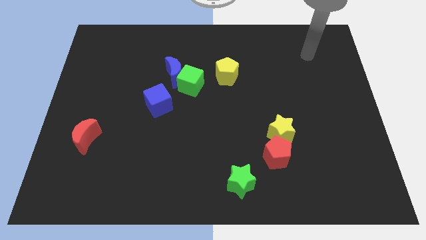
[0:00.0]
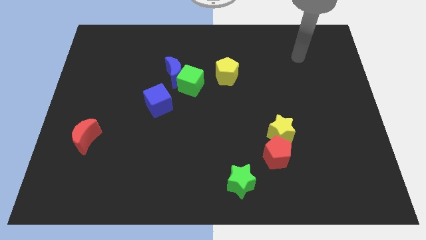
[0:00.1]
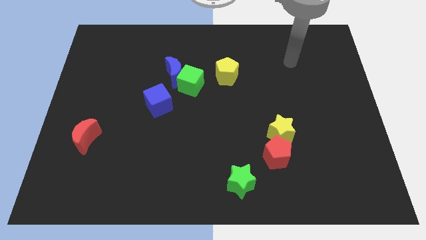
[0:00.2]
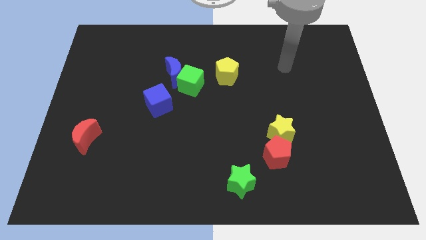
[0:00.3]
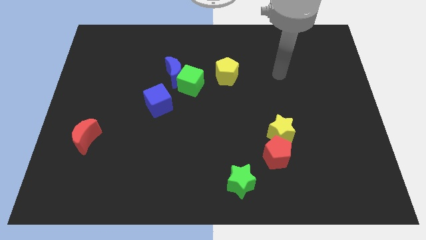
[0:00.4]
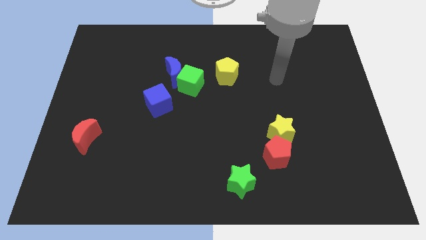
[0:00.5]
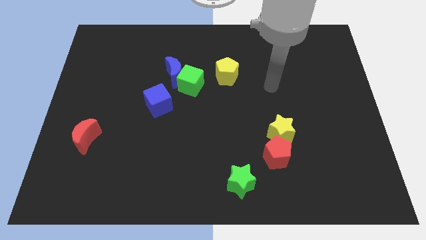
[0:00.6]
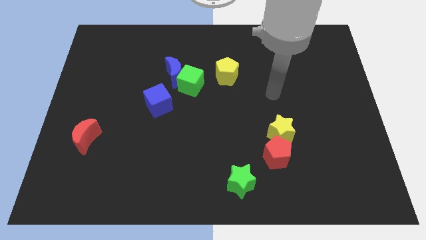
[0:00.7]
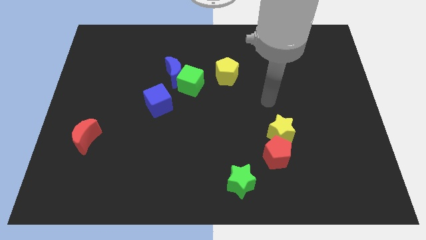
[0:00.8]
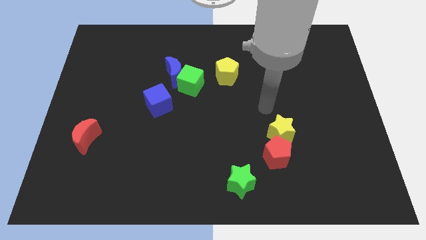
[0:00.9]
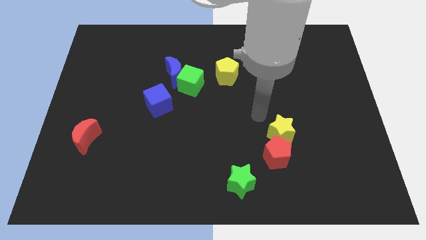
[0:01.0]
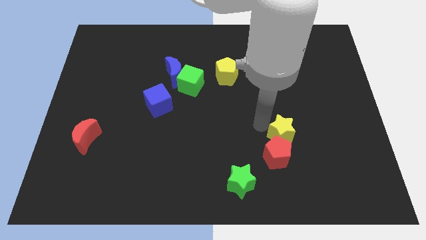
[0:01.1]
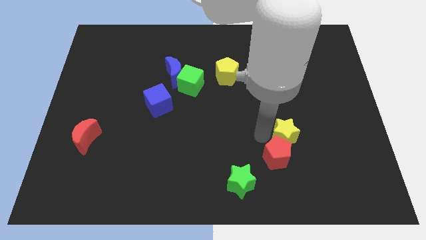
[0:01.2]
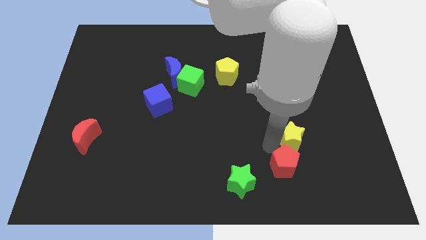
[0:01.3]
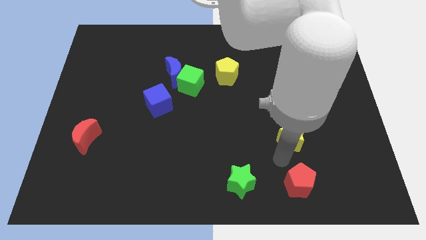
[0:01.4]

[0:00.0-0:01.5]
move the yellow star away from the red pentagon

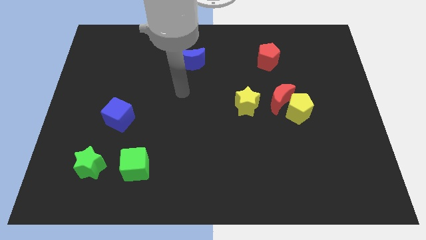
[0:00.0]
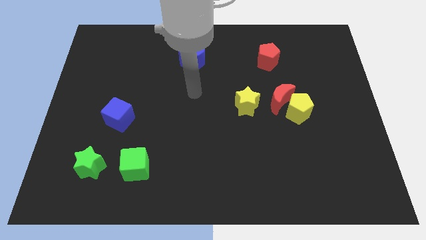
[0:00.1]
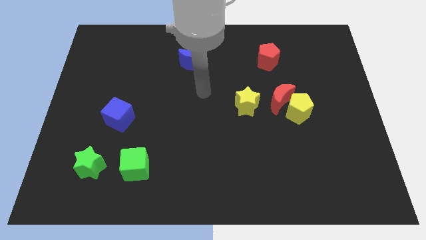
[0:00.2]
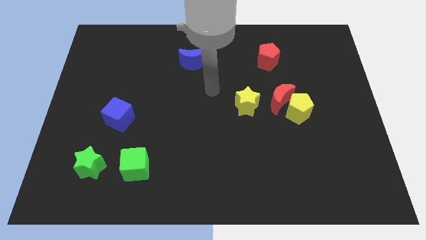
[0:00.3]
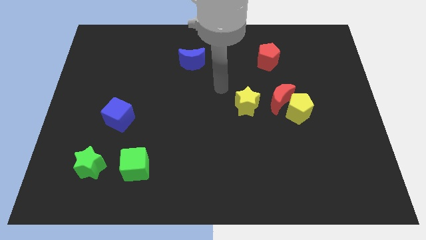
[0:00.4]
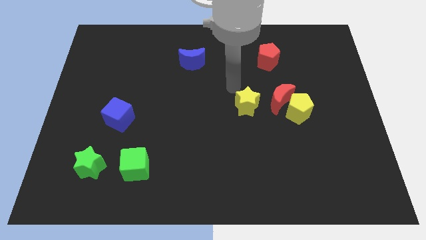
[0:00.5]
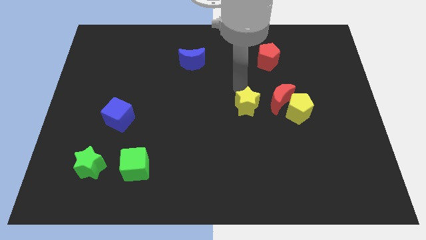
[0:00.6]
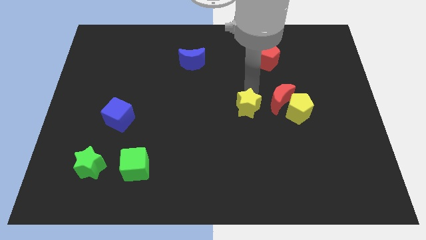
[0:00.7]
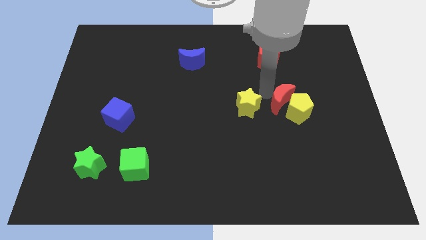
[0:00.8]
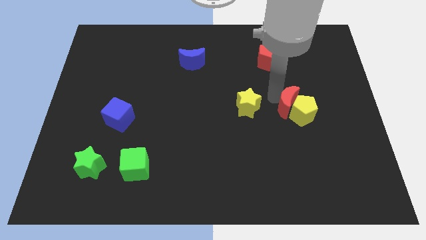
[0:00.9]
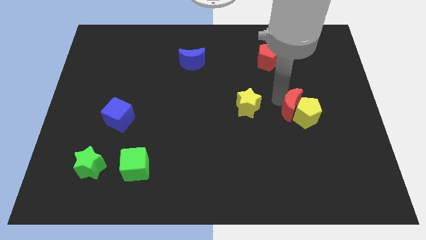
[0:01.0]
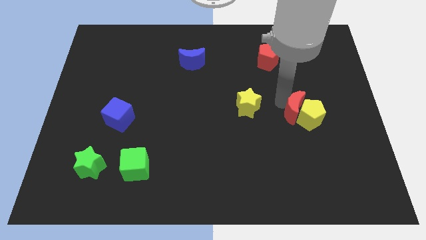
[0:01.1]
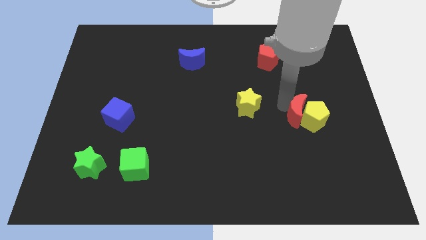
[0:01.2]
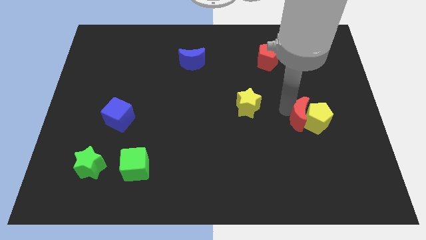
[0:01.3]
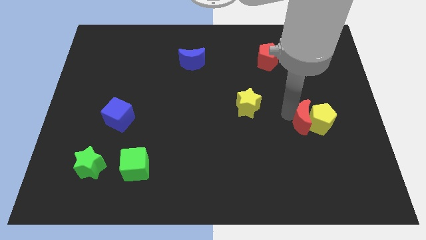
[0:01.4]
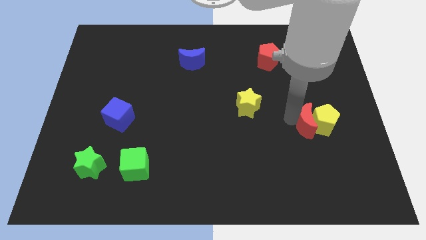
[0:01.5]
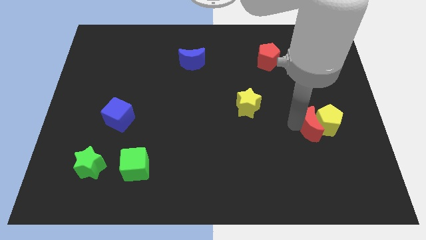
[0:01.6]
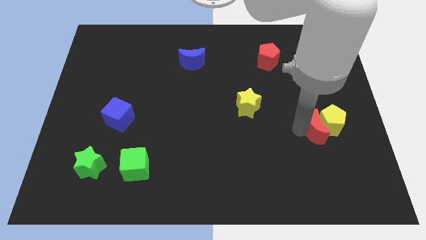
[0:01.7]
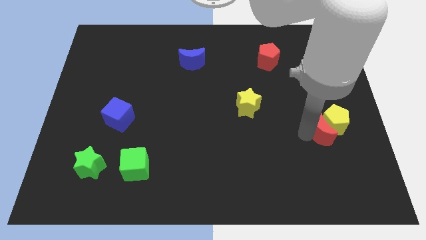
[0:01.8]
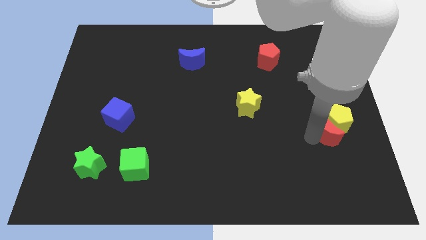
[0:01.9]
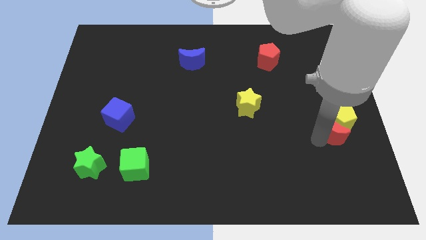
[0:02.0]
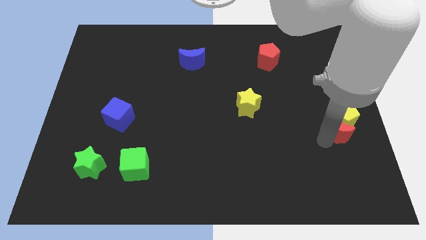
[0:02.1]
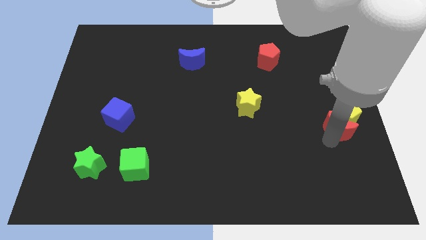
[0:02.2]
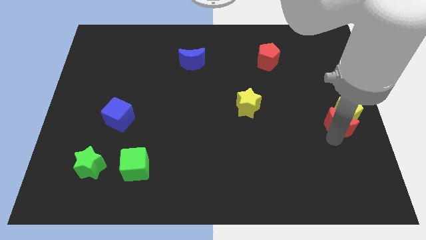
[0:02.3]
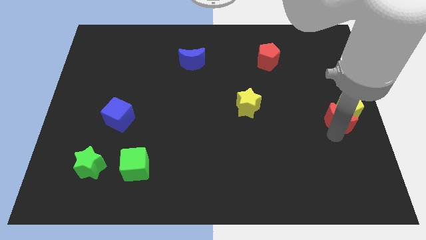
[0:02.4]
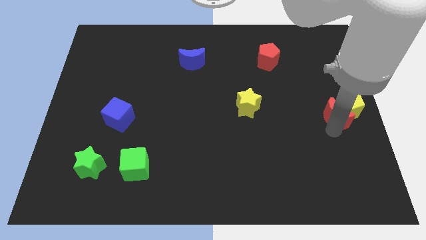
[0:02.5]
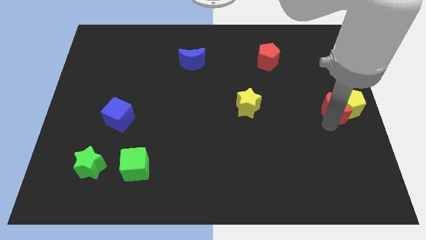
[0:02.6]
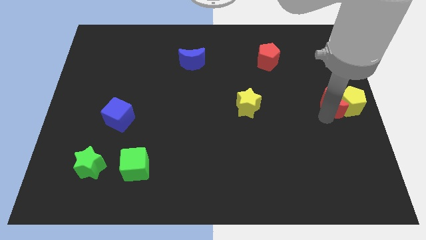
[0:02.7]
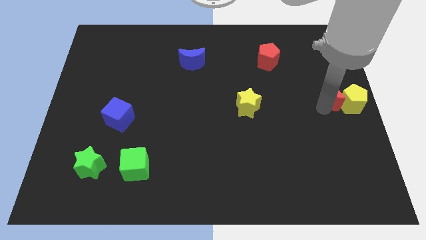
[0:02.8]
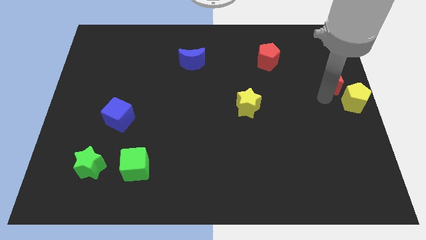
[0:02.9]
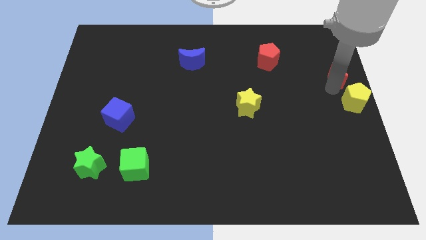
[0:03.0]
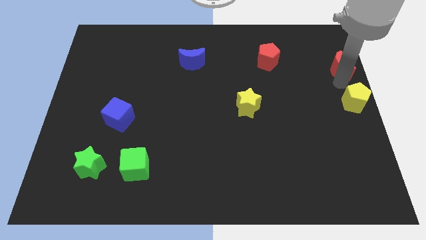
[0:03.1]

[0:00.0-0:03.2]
pull the yellow pentagon apart from the red moon

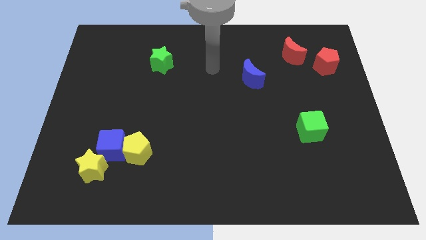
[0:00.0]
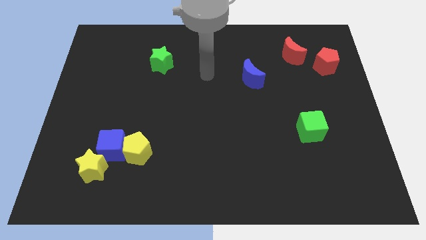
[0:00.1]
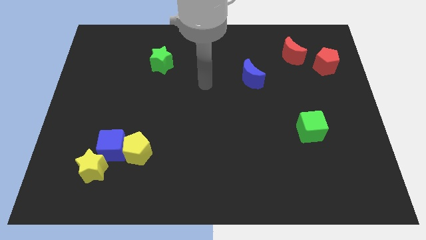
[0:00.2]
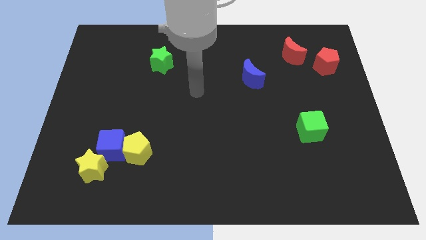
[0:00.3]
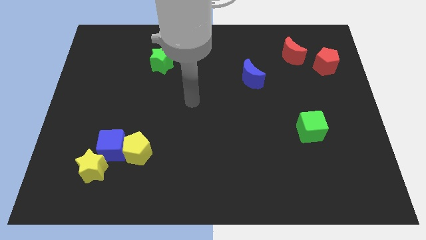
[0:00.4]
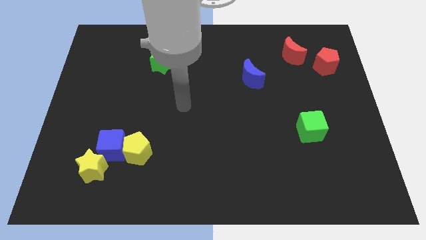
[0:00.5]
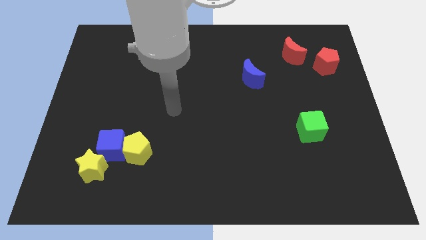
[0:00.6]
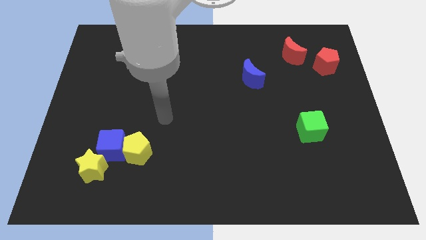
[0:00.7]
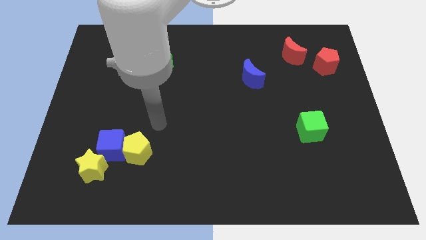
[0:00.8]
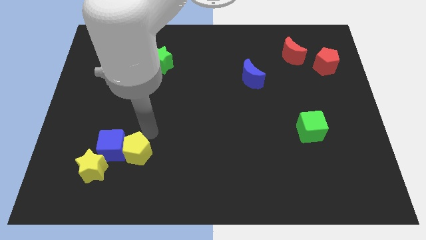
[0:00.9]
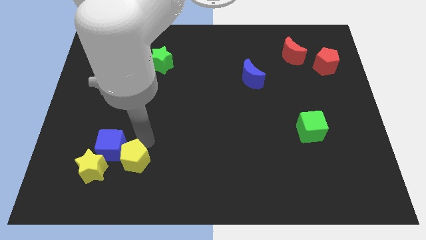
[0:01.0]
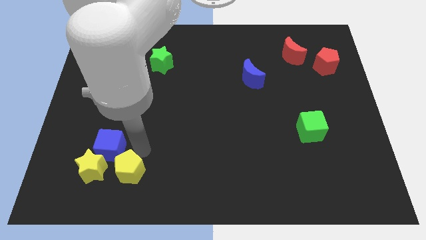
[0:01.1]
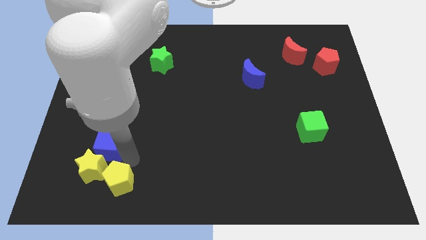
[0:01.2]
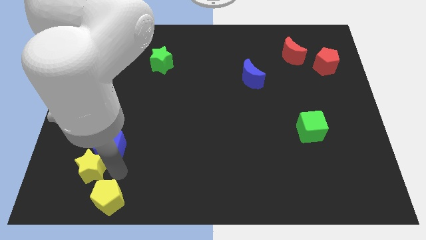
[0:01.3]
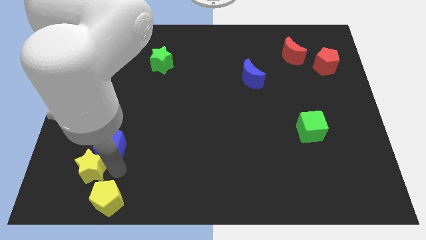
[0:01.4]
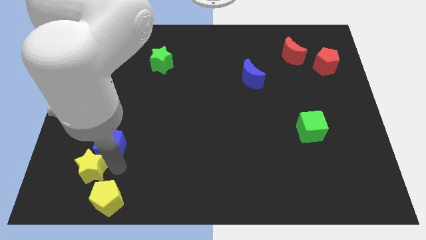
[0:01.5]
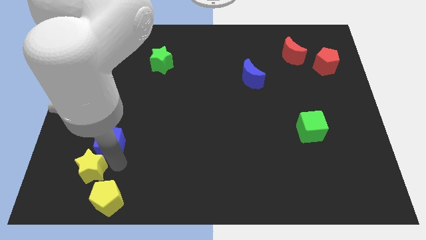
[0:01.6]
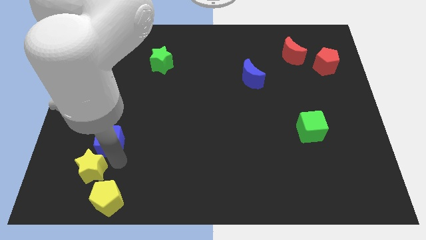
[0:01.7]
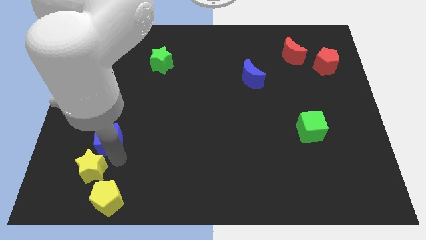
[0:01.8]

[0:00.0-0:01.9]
move the blue cube away from the yellow pentagon and yellow star

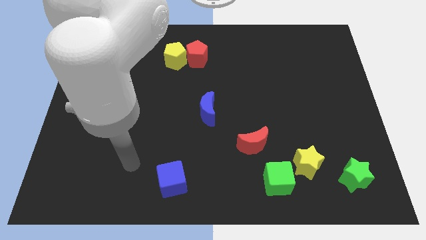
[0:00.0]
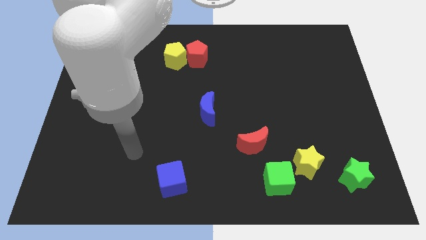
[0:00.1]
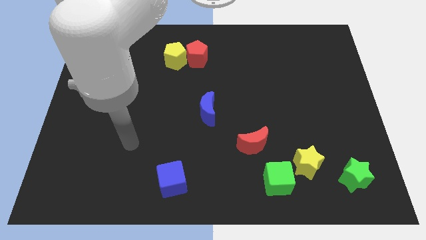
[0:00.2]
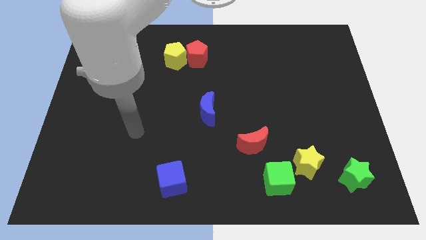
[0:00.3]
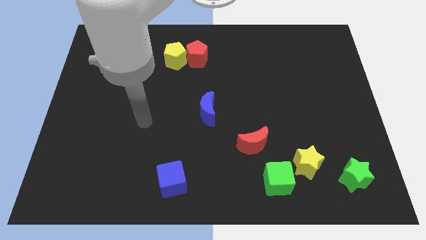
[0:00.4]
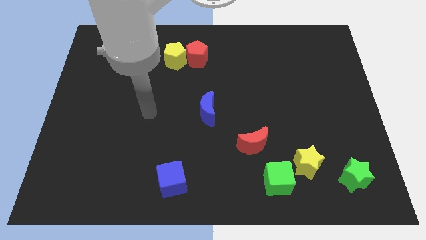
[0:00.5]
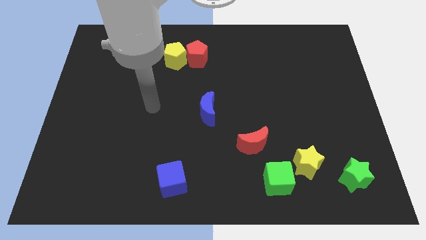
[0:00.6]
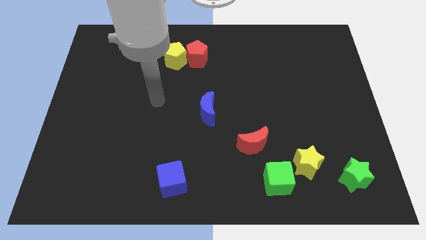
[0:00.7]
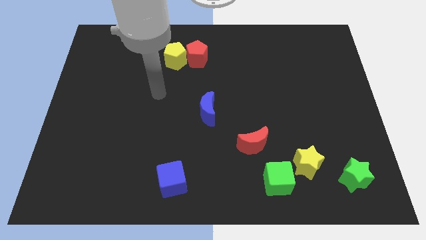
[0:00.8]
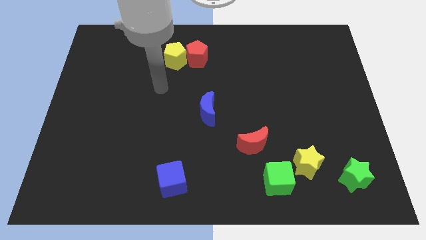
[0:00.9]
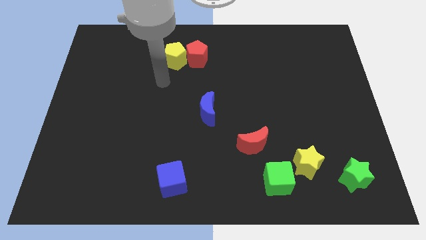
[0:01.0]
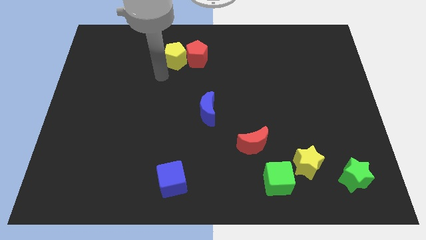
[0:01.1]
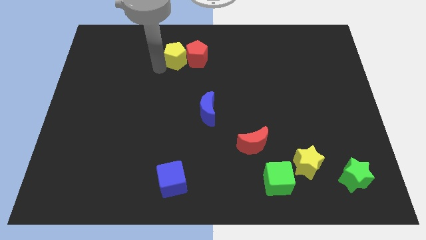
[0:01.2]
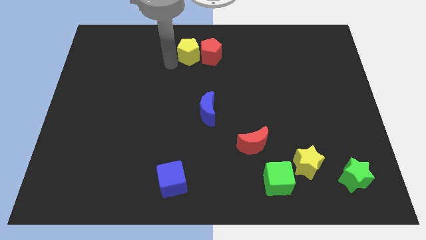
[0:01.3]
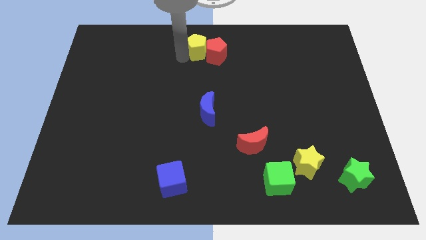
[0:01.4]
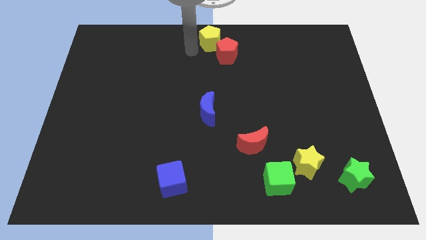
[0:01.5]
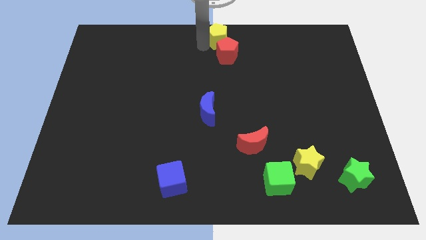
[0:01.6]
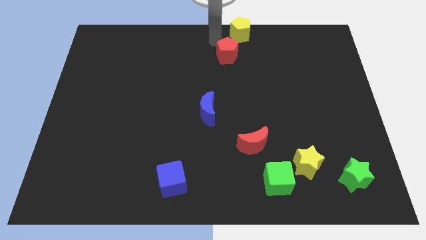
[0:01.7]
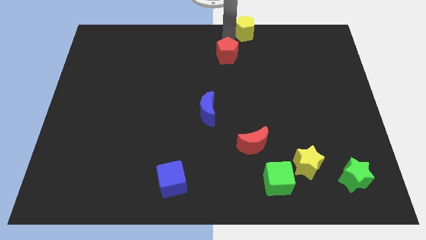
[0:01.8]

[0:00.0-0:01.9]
separate the red pentagon from the yellow pentagon

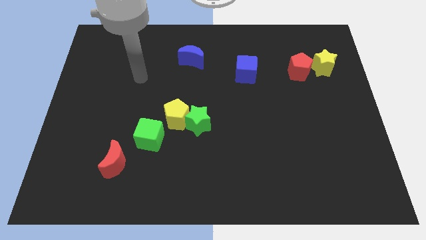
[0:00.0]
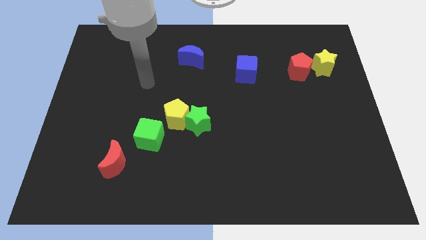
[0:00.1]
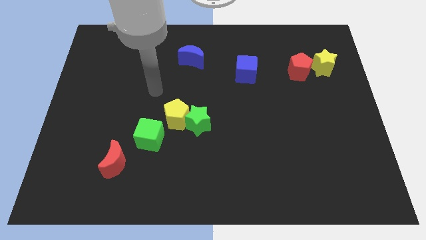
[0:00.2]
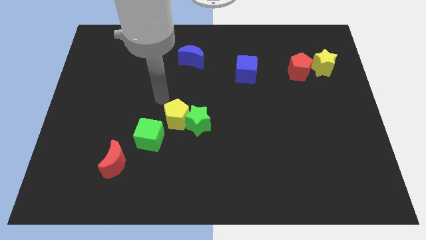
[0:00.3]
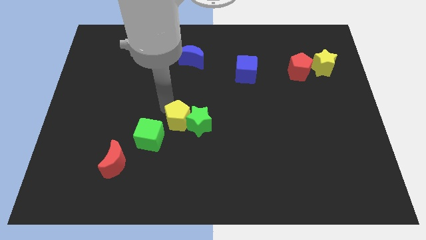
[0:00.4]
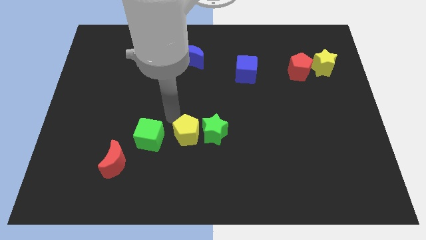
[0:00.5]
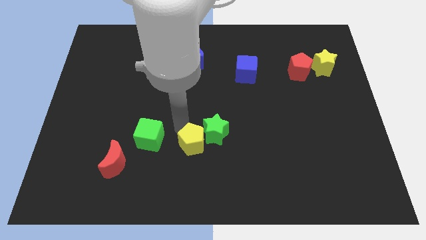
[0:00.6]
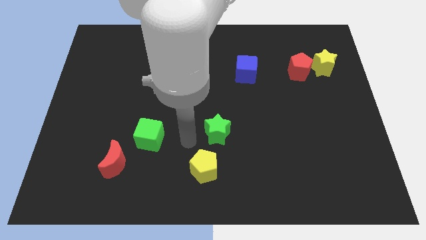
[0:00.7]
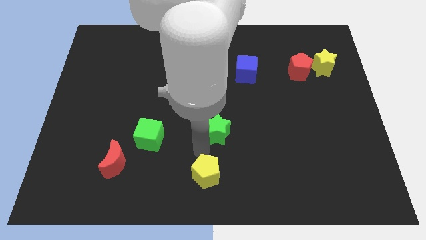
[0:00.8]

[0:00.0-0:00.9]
separate the green star from the yellow pentagon
